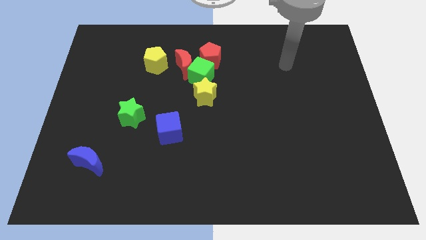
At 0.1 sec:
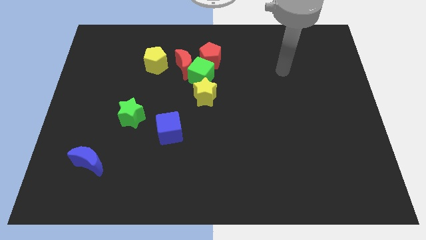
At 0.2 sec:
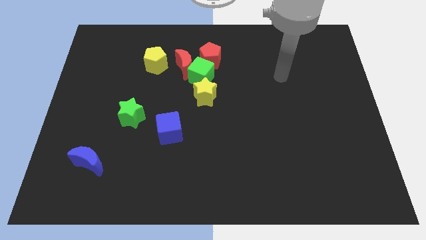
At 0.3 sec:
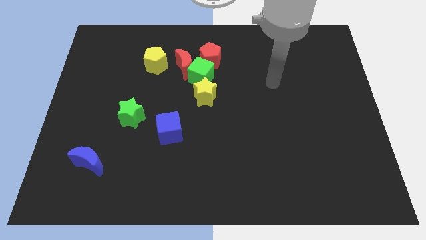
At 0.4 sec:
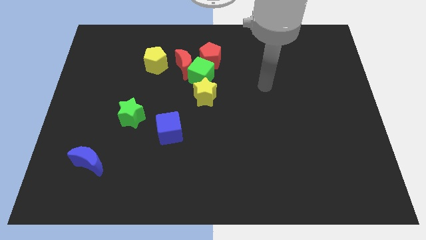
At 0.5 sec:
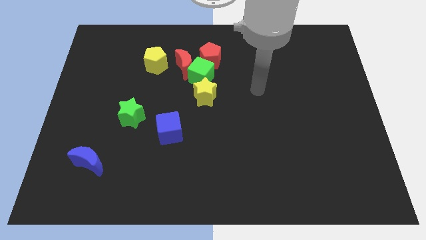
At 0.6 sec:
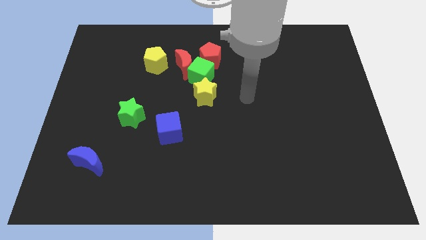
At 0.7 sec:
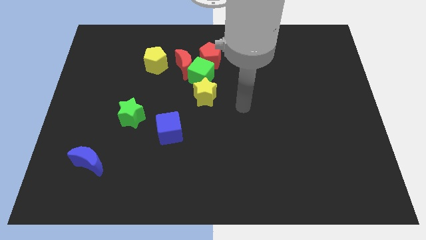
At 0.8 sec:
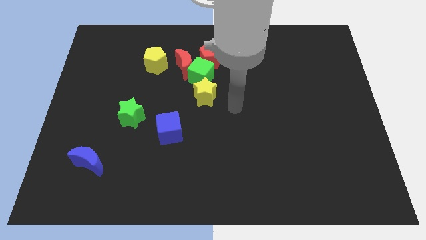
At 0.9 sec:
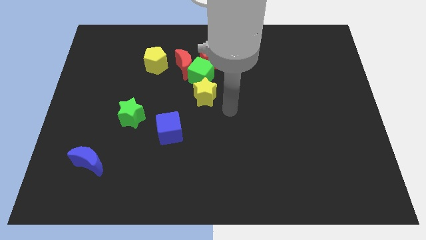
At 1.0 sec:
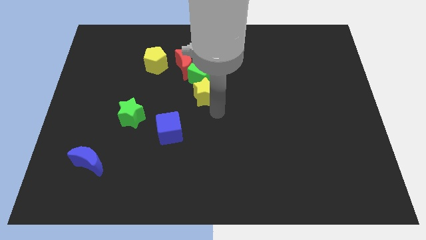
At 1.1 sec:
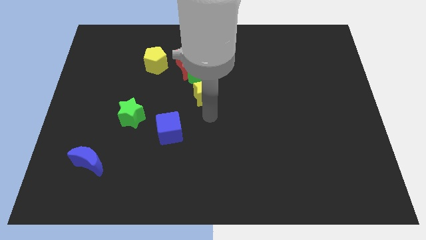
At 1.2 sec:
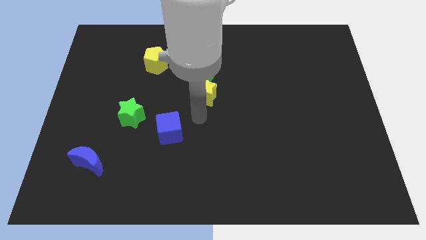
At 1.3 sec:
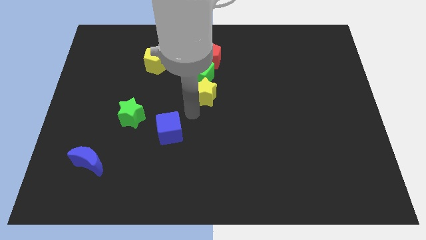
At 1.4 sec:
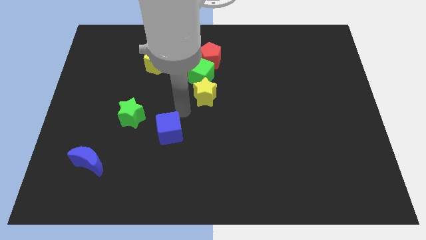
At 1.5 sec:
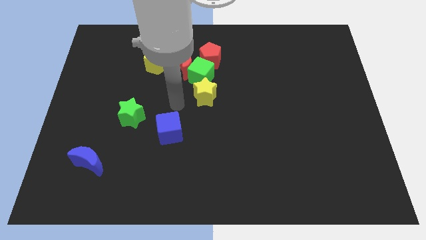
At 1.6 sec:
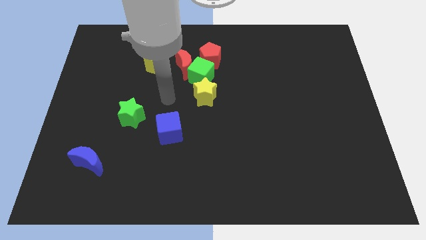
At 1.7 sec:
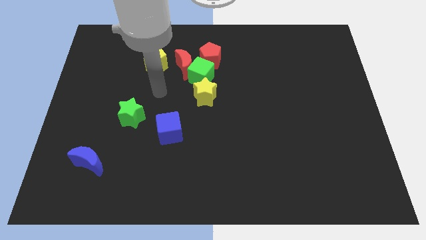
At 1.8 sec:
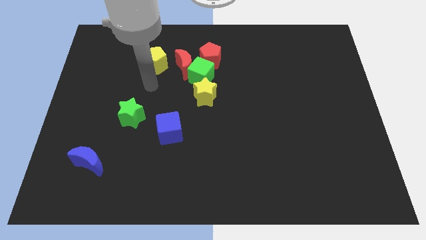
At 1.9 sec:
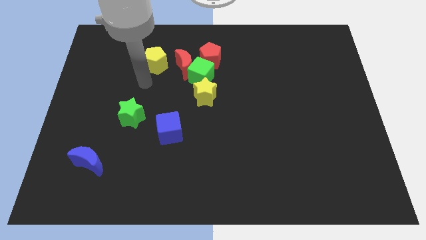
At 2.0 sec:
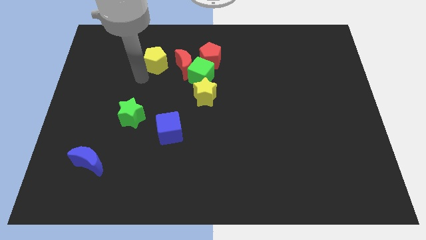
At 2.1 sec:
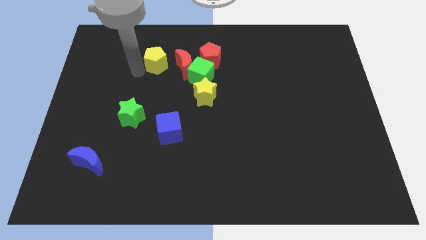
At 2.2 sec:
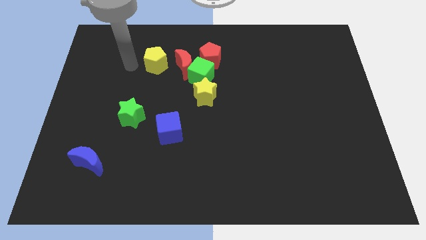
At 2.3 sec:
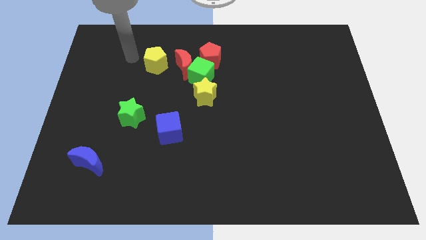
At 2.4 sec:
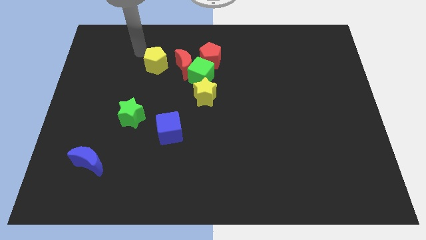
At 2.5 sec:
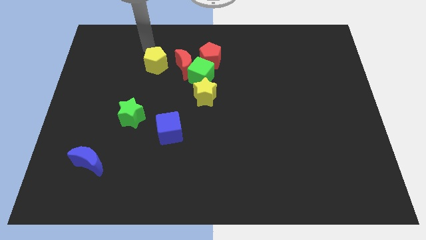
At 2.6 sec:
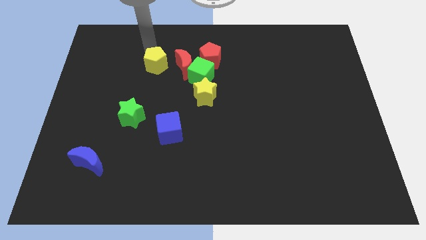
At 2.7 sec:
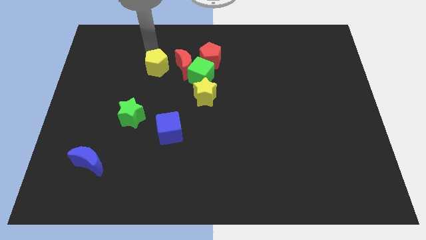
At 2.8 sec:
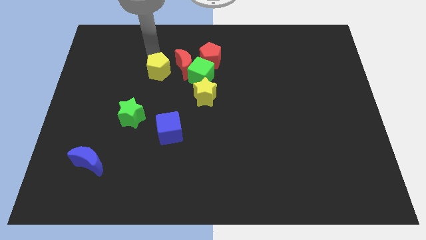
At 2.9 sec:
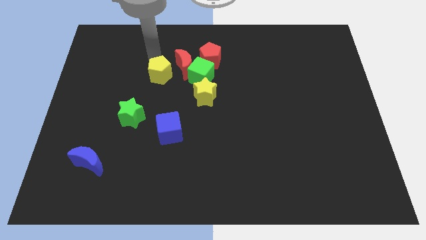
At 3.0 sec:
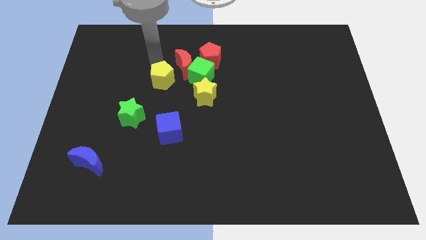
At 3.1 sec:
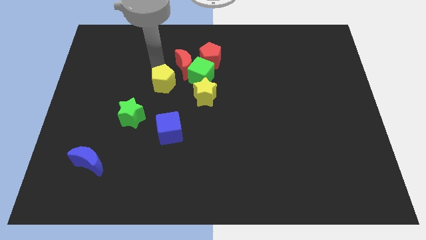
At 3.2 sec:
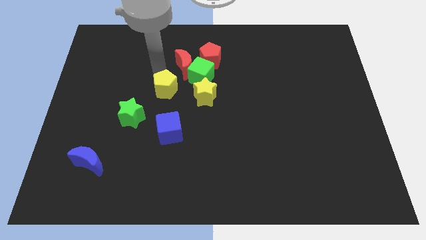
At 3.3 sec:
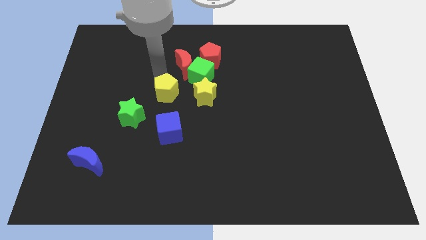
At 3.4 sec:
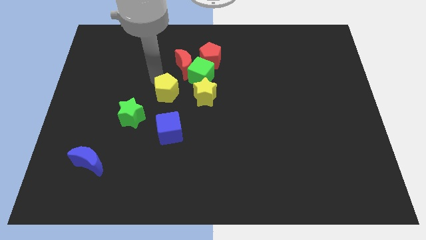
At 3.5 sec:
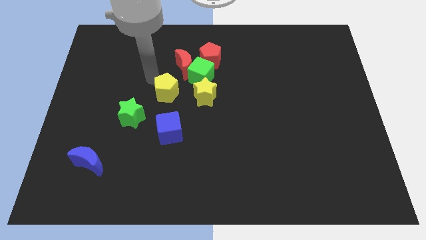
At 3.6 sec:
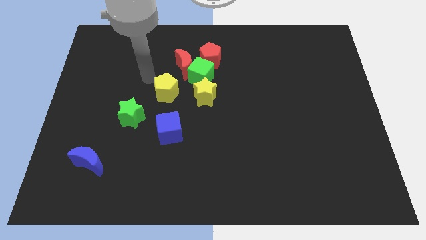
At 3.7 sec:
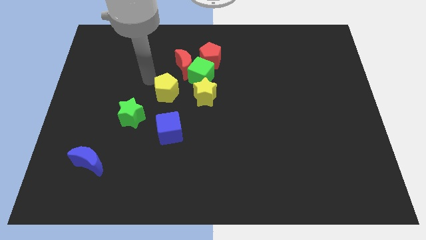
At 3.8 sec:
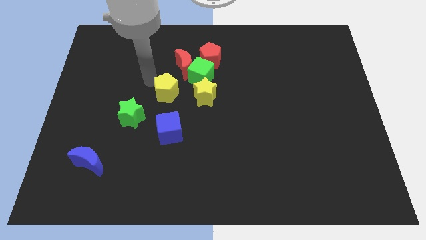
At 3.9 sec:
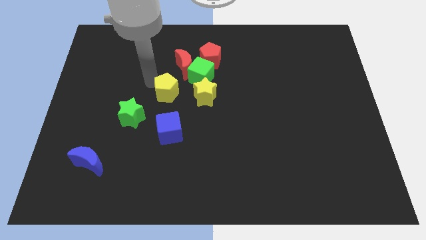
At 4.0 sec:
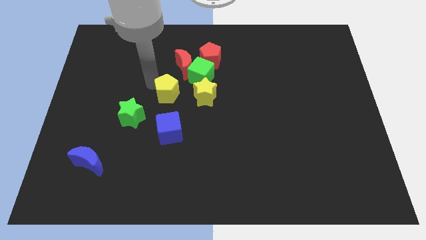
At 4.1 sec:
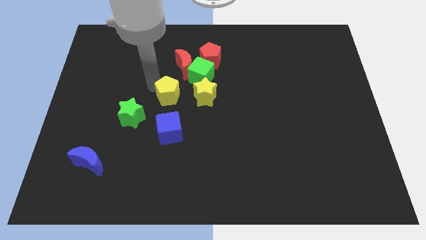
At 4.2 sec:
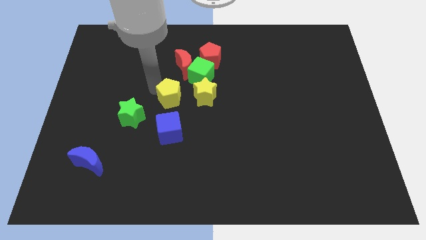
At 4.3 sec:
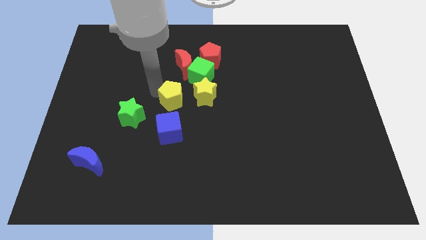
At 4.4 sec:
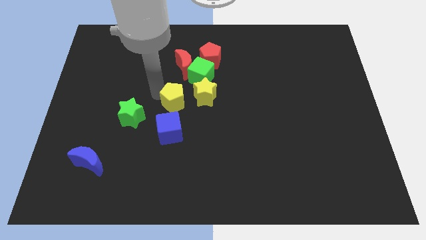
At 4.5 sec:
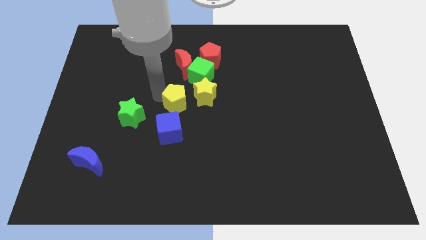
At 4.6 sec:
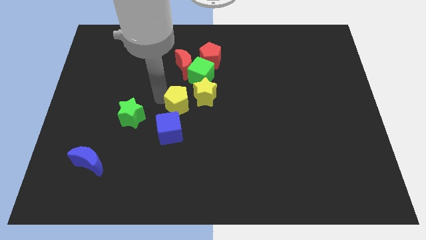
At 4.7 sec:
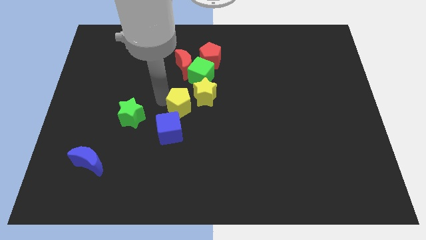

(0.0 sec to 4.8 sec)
put the yellow pentagon below the green cube

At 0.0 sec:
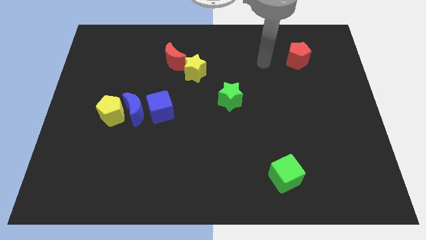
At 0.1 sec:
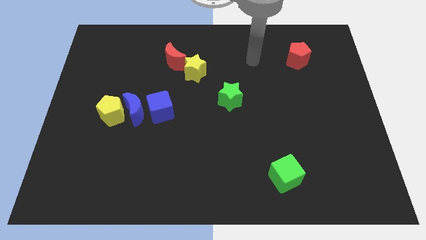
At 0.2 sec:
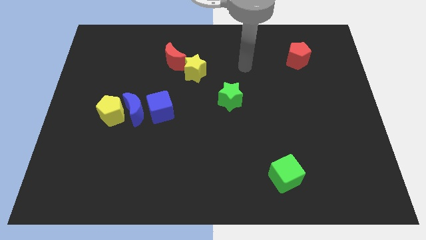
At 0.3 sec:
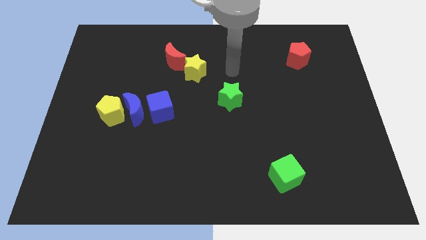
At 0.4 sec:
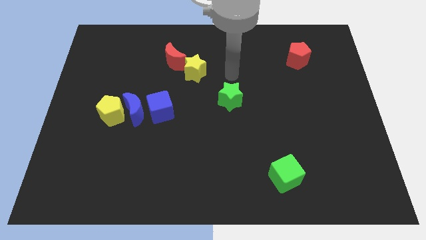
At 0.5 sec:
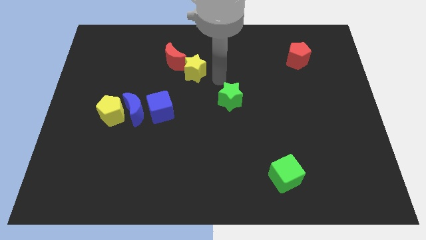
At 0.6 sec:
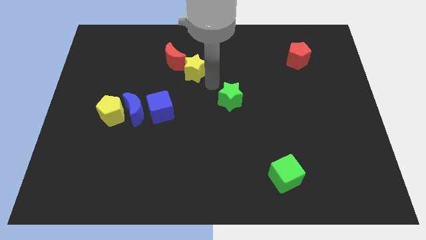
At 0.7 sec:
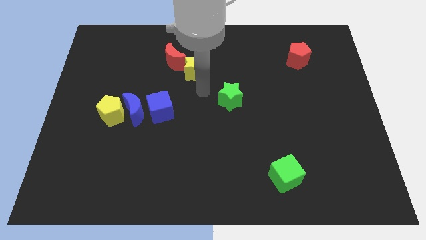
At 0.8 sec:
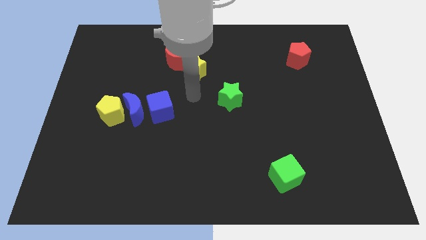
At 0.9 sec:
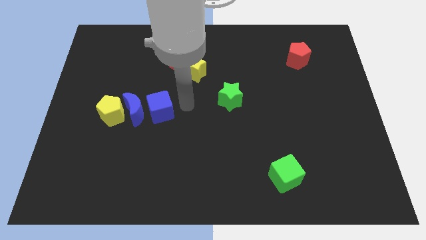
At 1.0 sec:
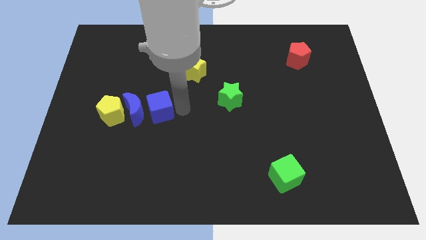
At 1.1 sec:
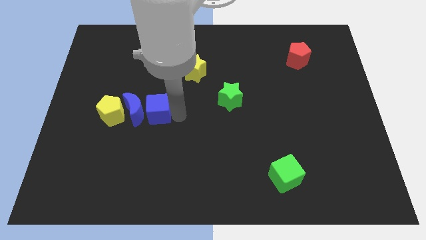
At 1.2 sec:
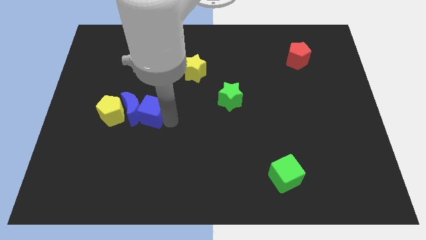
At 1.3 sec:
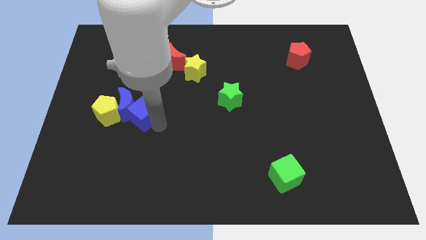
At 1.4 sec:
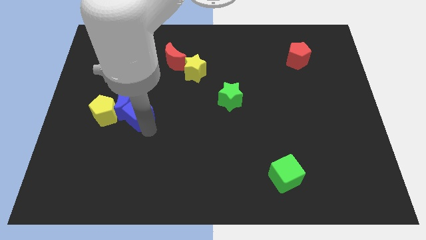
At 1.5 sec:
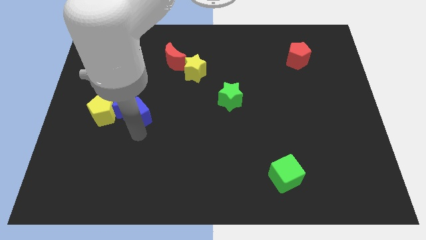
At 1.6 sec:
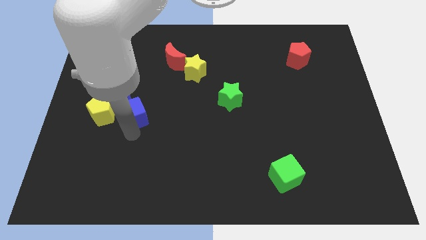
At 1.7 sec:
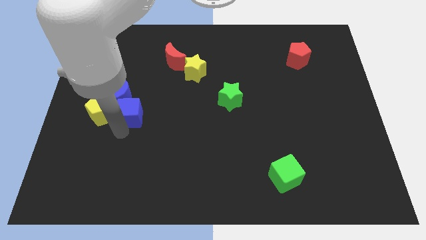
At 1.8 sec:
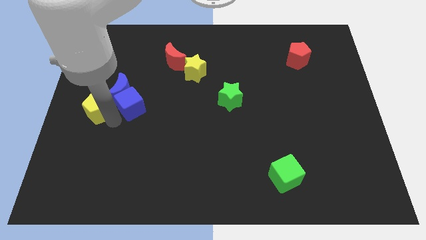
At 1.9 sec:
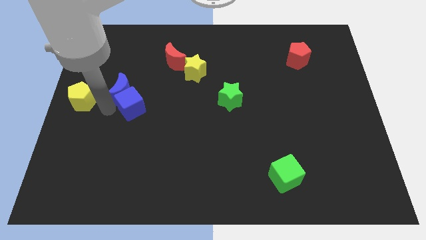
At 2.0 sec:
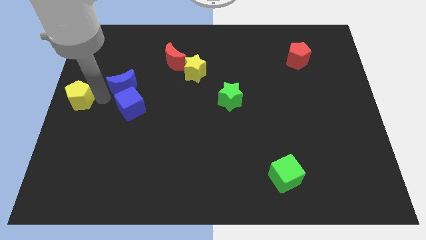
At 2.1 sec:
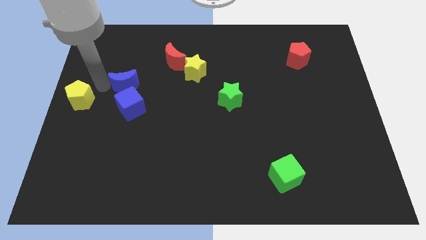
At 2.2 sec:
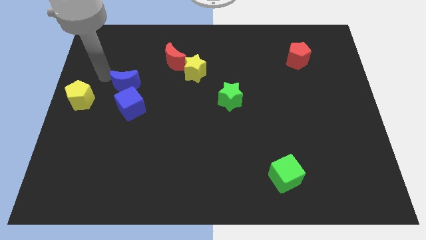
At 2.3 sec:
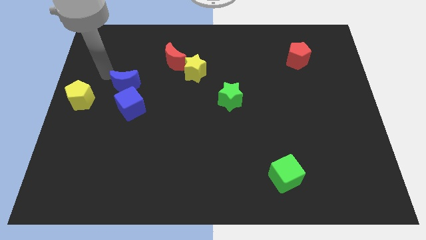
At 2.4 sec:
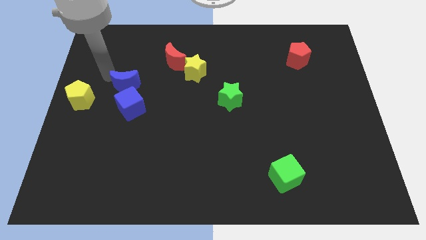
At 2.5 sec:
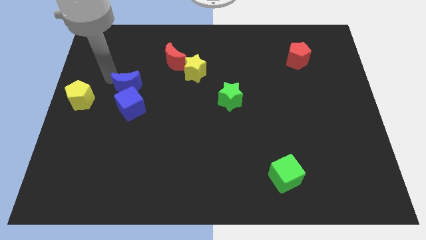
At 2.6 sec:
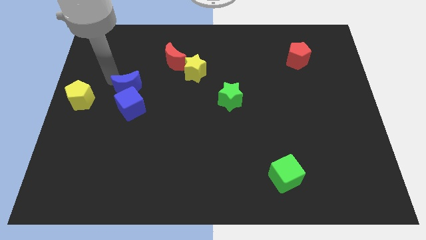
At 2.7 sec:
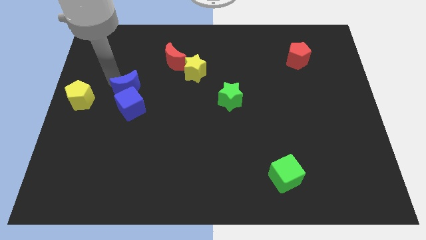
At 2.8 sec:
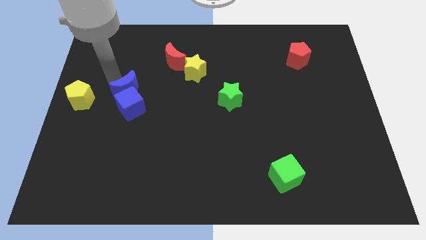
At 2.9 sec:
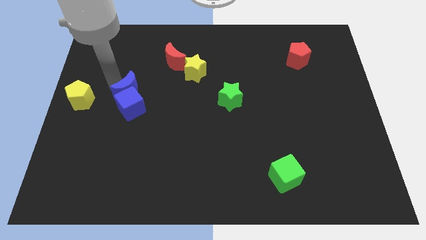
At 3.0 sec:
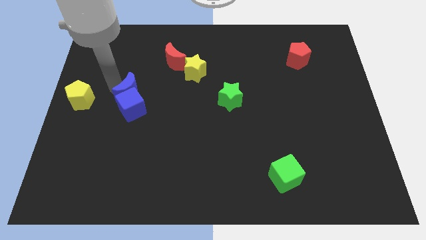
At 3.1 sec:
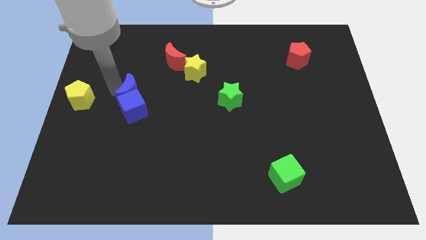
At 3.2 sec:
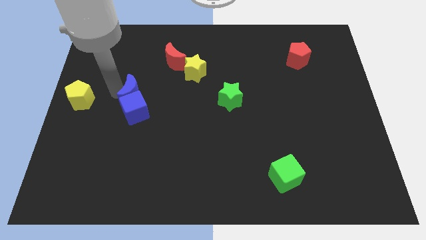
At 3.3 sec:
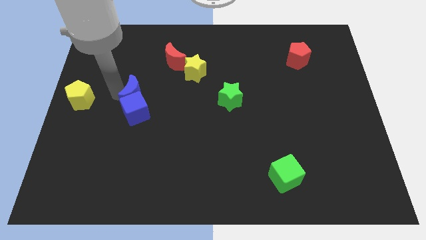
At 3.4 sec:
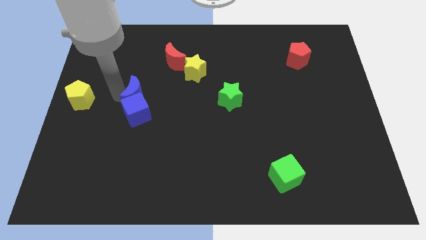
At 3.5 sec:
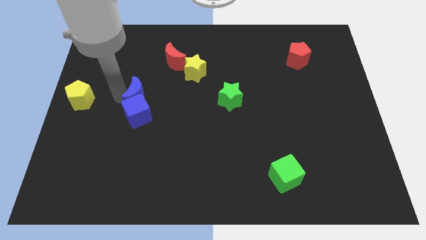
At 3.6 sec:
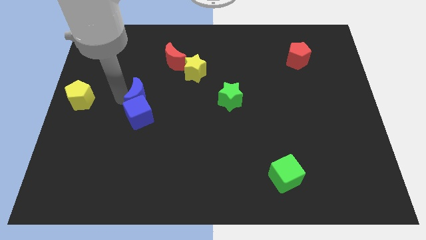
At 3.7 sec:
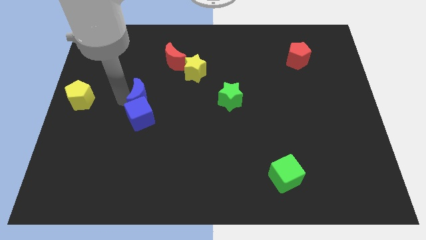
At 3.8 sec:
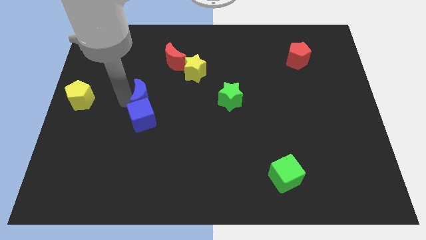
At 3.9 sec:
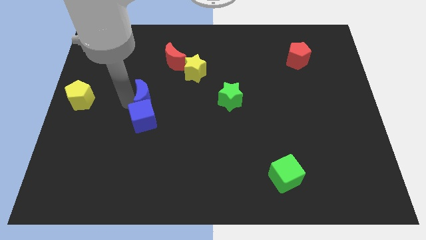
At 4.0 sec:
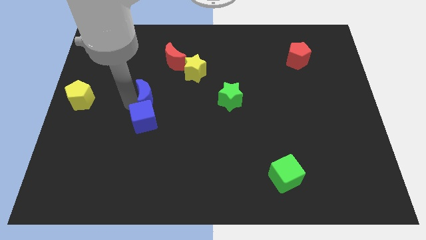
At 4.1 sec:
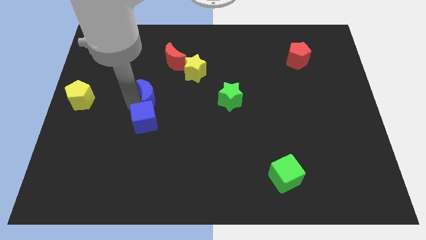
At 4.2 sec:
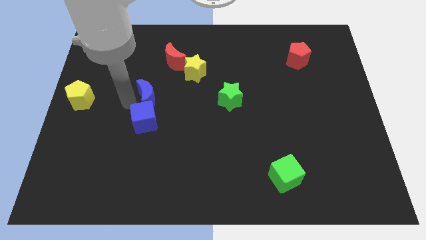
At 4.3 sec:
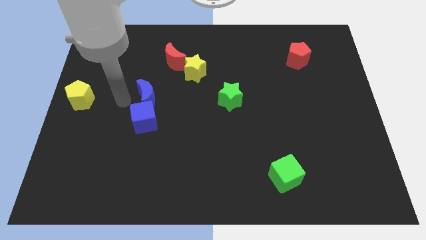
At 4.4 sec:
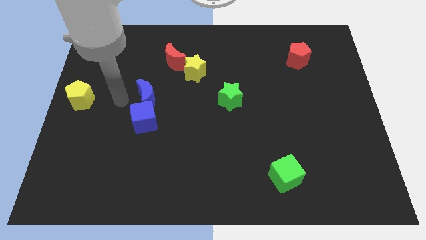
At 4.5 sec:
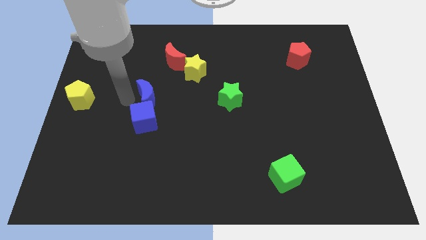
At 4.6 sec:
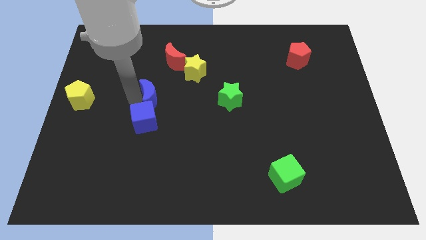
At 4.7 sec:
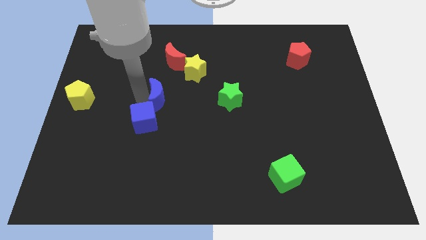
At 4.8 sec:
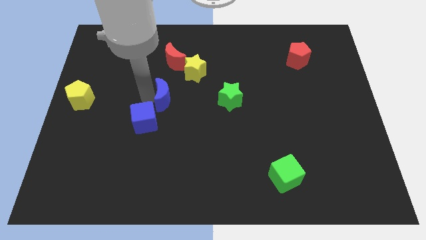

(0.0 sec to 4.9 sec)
put the blue moon to the left of the green star
